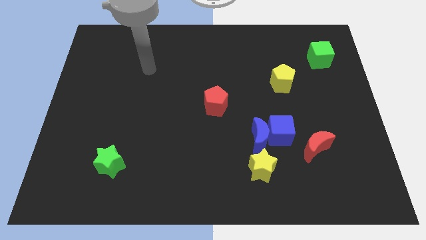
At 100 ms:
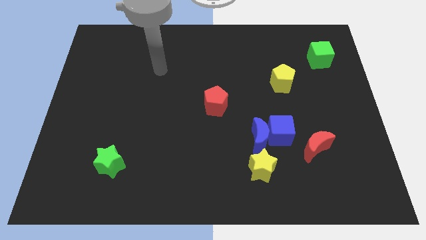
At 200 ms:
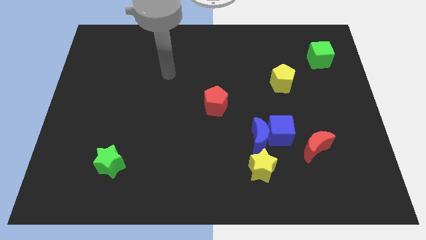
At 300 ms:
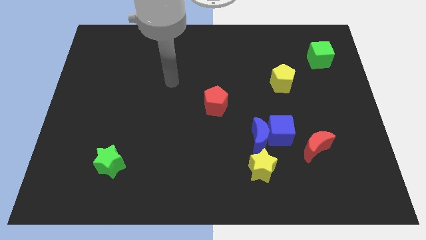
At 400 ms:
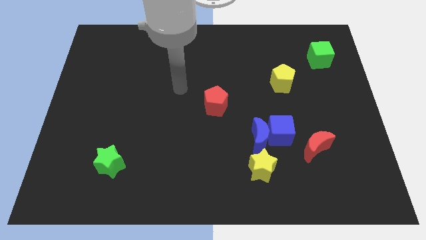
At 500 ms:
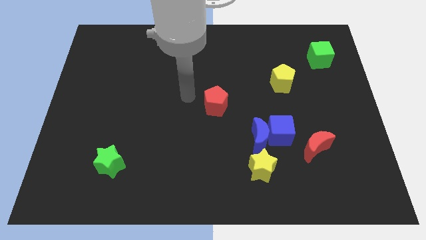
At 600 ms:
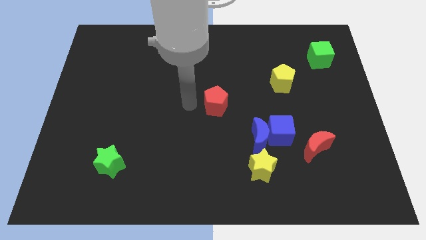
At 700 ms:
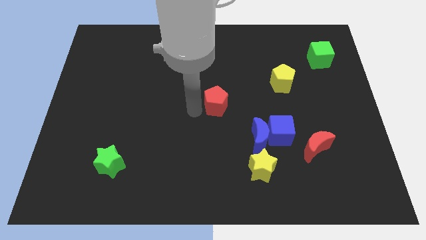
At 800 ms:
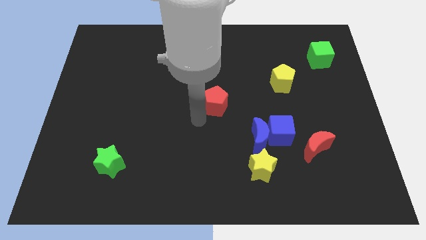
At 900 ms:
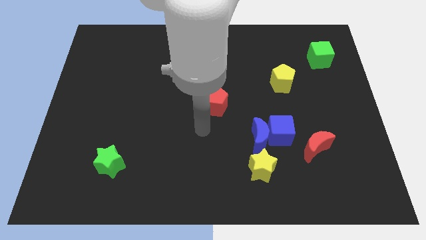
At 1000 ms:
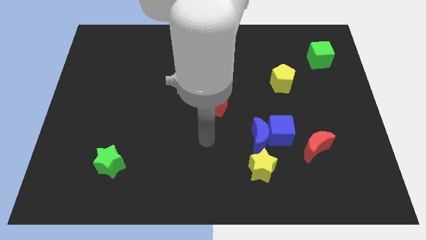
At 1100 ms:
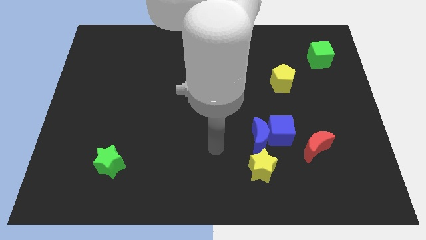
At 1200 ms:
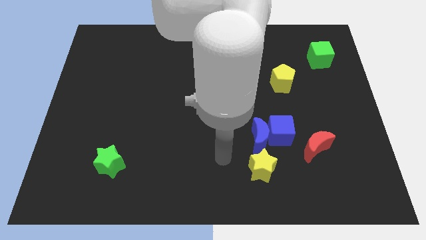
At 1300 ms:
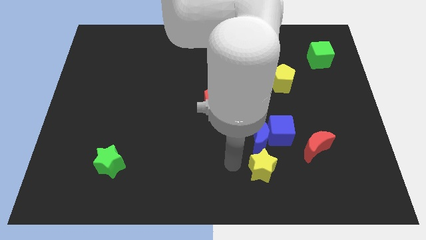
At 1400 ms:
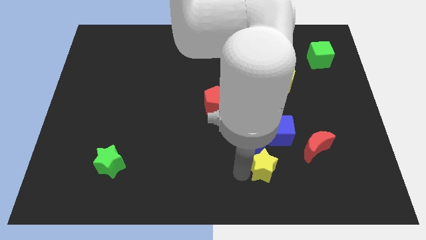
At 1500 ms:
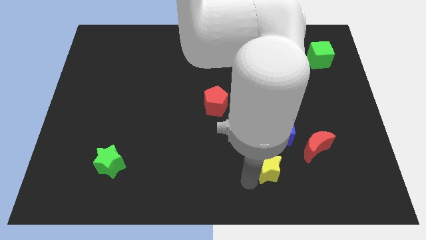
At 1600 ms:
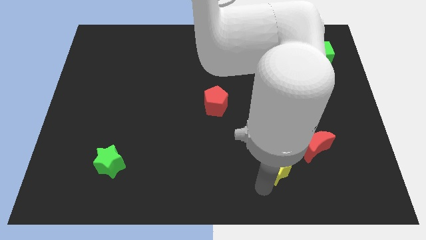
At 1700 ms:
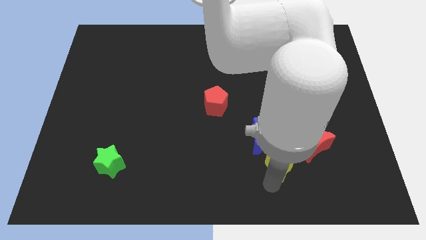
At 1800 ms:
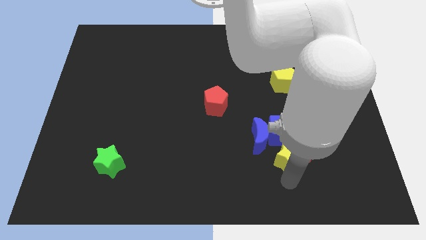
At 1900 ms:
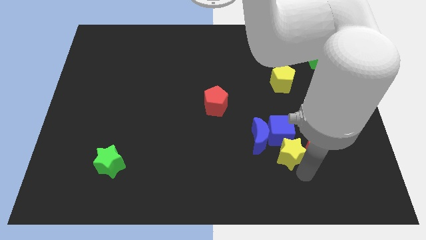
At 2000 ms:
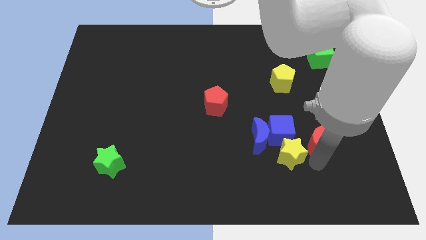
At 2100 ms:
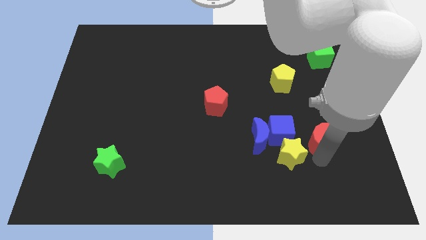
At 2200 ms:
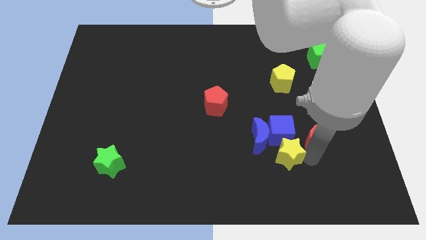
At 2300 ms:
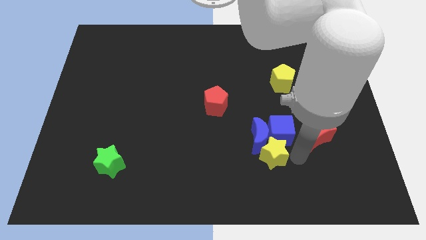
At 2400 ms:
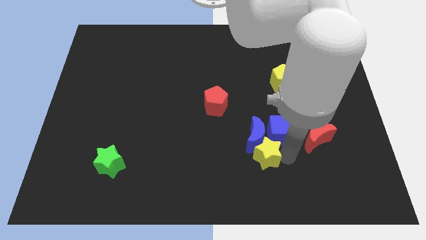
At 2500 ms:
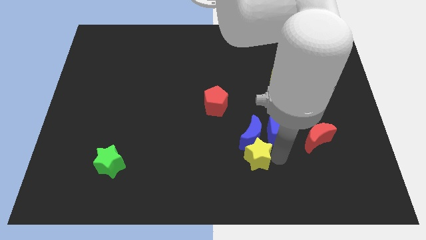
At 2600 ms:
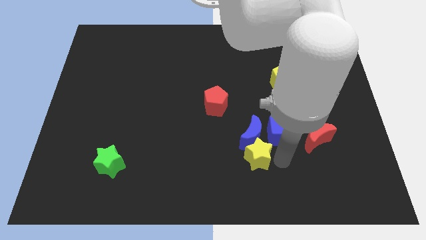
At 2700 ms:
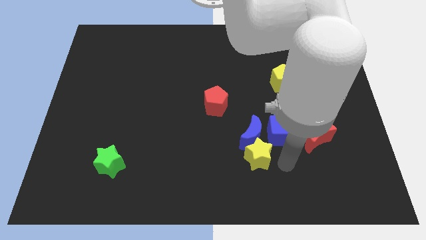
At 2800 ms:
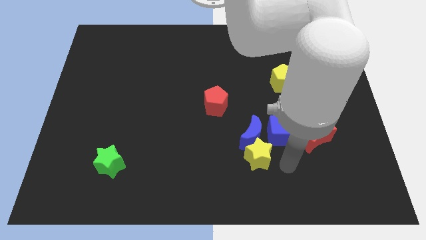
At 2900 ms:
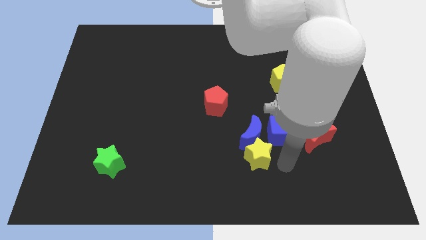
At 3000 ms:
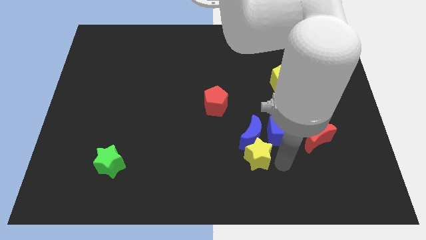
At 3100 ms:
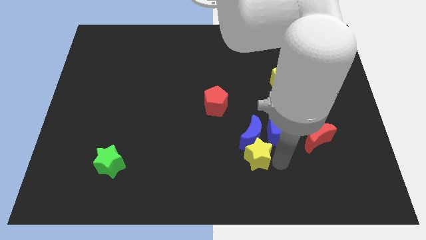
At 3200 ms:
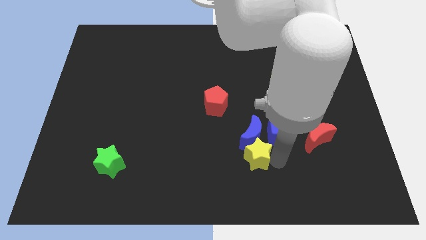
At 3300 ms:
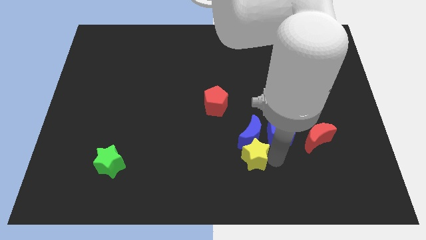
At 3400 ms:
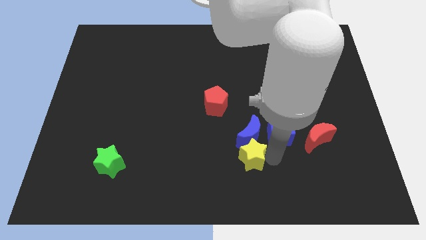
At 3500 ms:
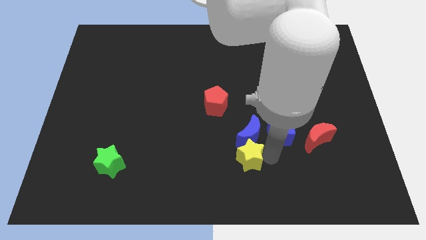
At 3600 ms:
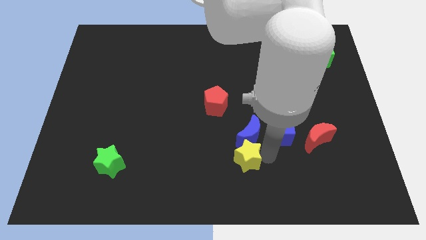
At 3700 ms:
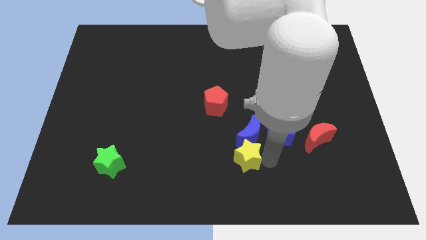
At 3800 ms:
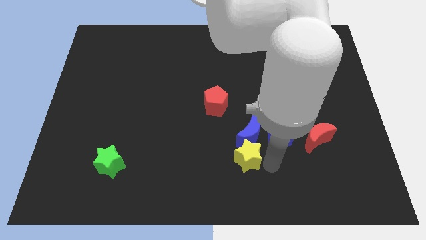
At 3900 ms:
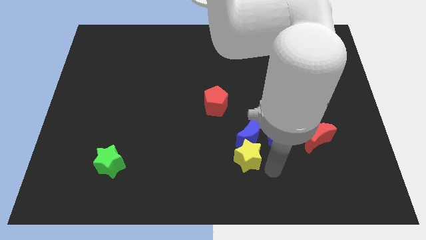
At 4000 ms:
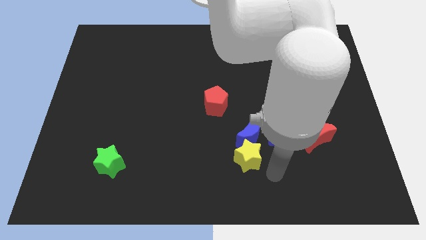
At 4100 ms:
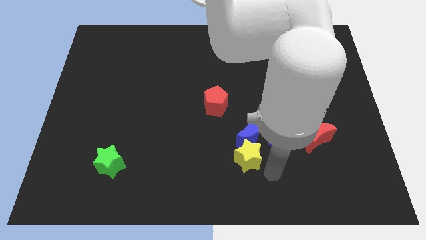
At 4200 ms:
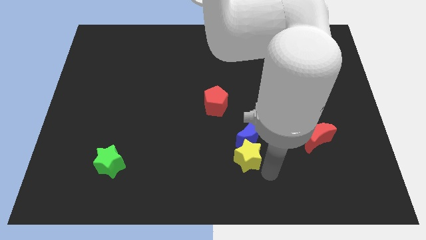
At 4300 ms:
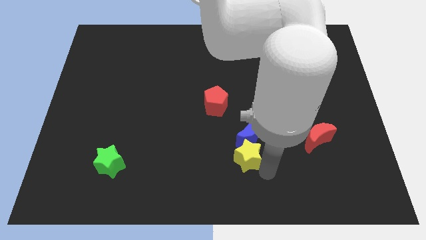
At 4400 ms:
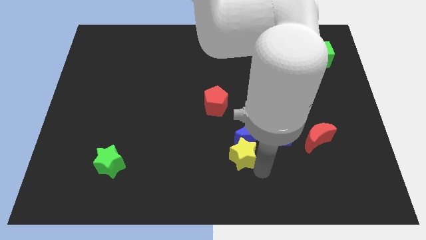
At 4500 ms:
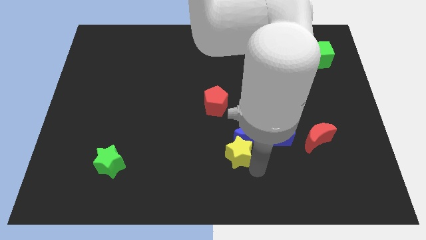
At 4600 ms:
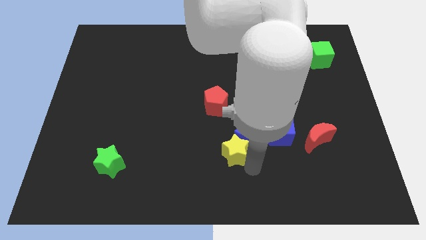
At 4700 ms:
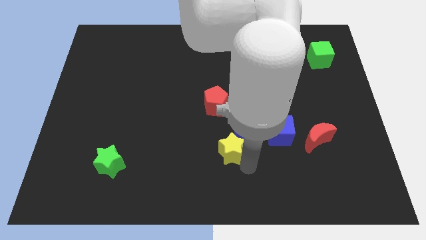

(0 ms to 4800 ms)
put the yellow star to the left of the blue moon

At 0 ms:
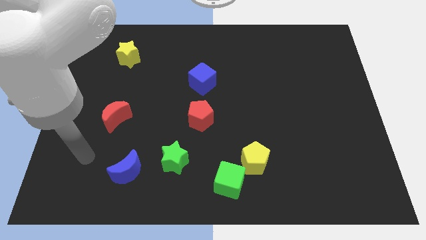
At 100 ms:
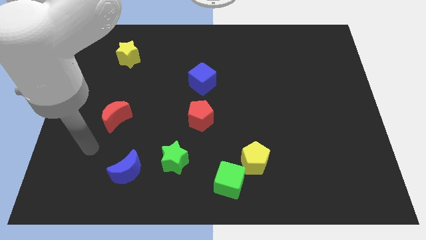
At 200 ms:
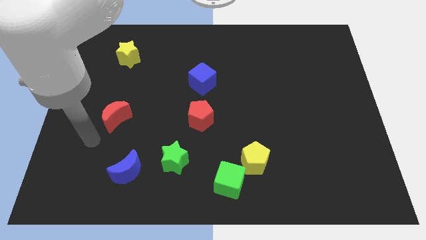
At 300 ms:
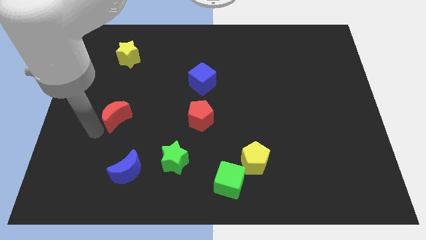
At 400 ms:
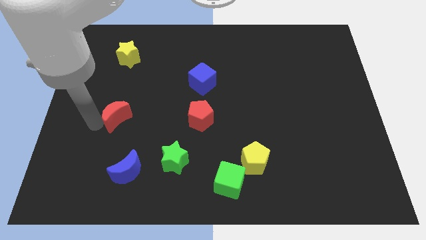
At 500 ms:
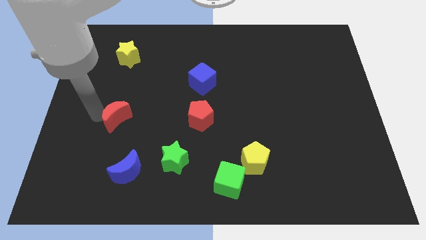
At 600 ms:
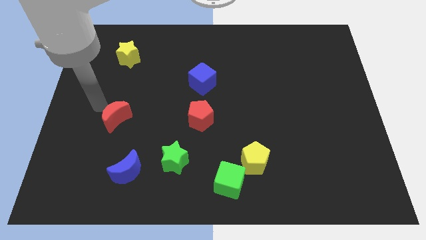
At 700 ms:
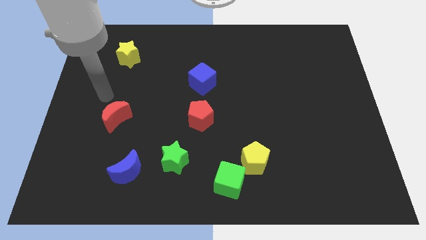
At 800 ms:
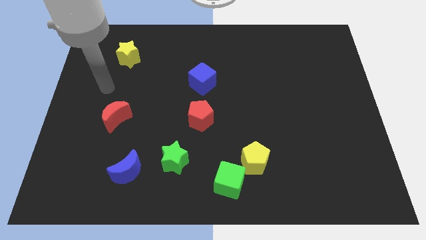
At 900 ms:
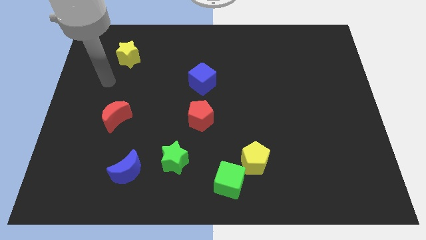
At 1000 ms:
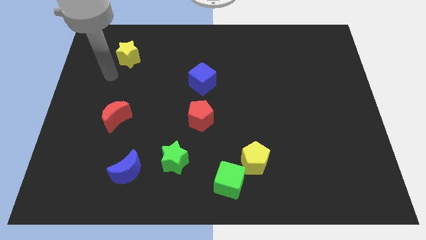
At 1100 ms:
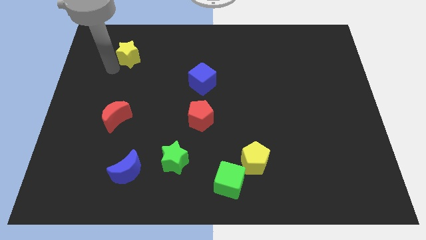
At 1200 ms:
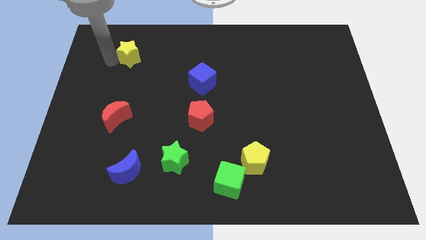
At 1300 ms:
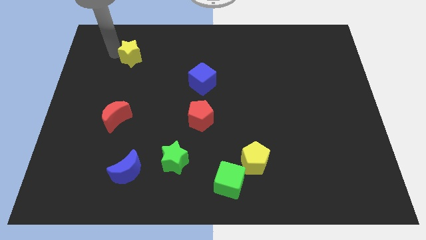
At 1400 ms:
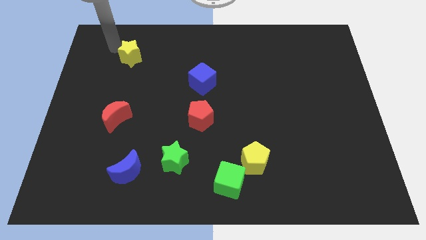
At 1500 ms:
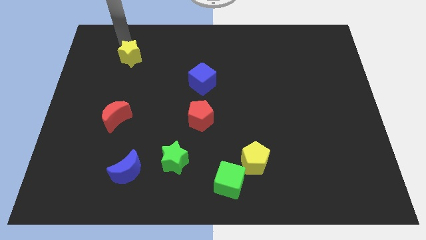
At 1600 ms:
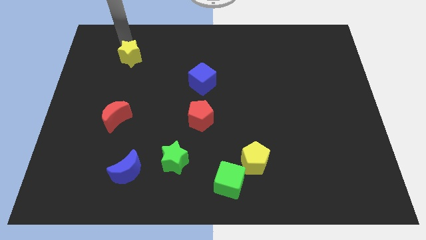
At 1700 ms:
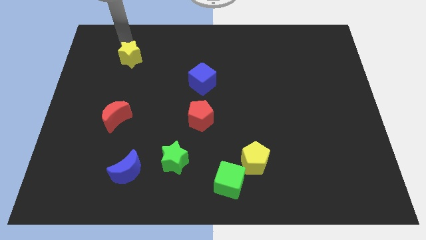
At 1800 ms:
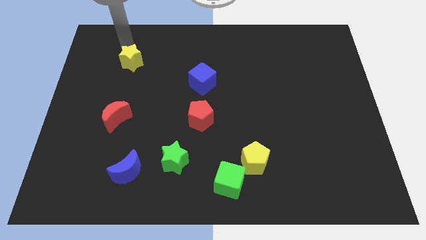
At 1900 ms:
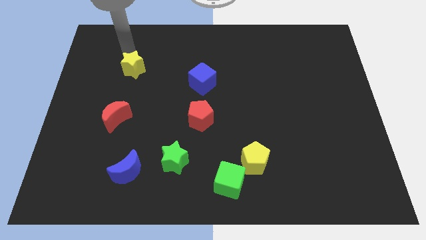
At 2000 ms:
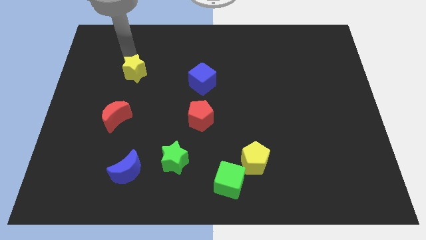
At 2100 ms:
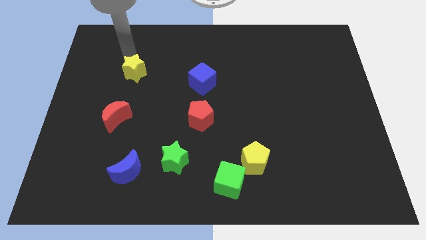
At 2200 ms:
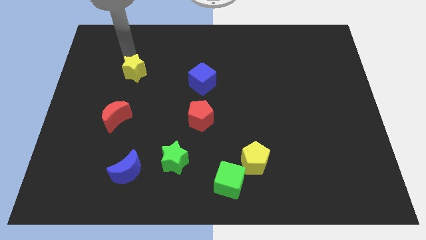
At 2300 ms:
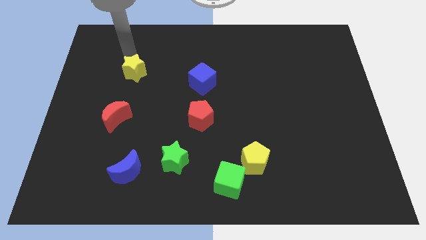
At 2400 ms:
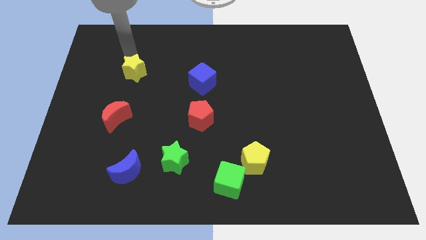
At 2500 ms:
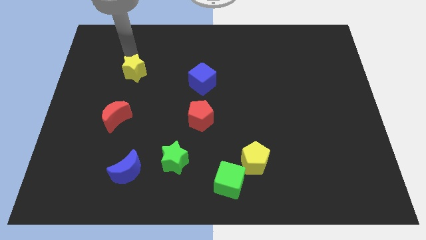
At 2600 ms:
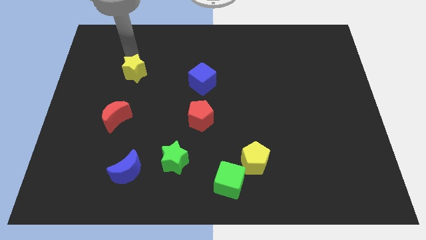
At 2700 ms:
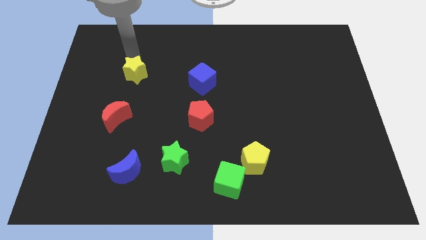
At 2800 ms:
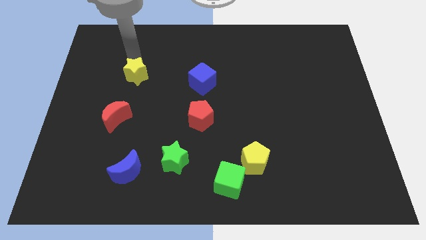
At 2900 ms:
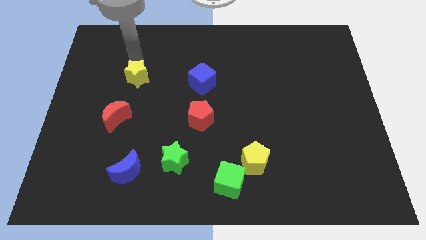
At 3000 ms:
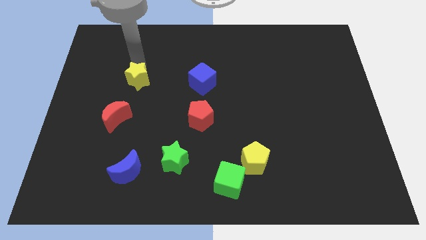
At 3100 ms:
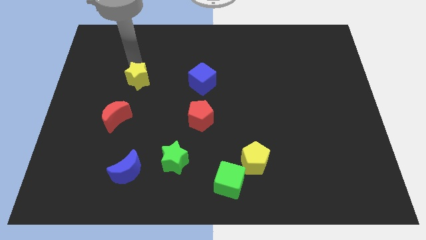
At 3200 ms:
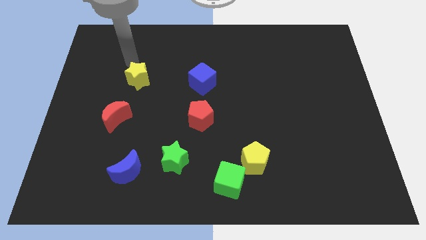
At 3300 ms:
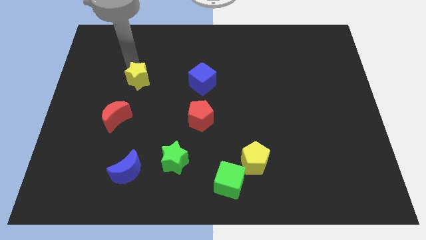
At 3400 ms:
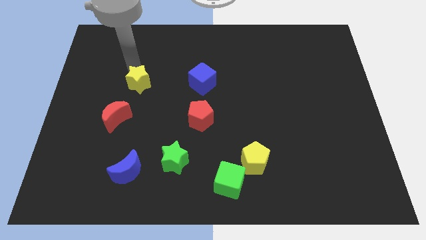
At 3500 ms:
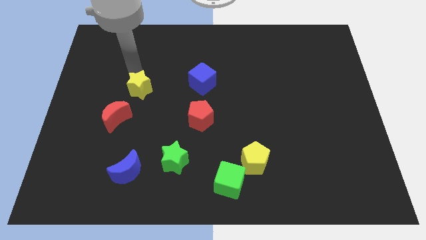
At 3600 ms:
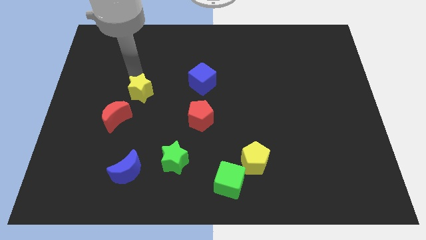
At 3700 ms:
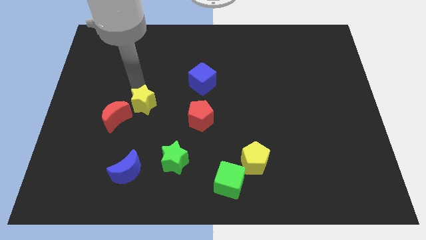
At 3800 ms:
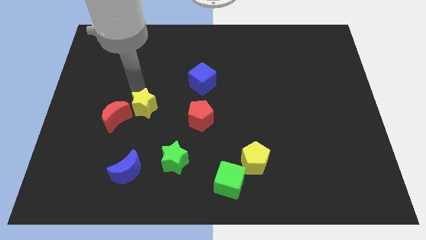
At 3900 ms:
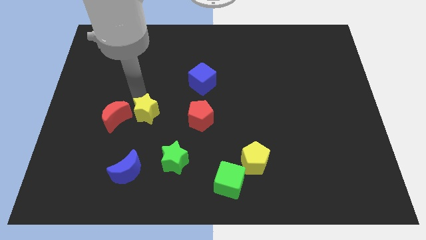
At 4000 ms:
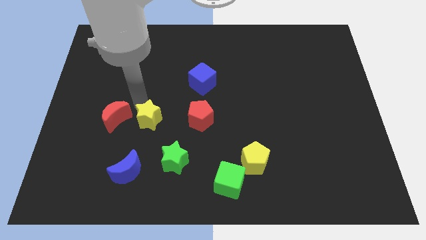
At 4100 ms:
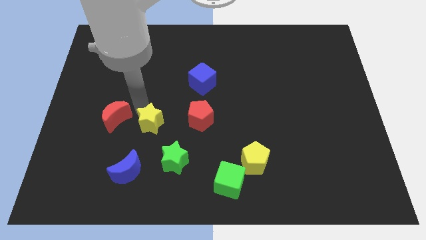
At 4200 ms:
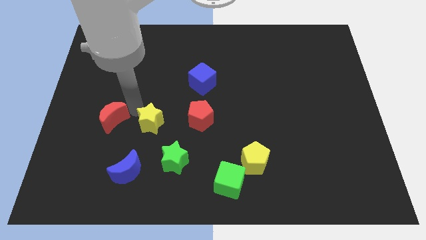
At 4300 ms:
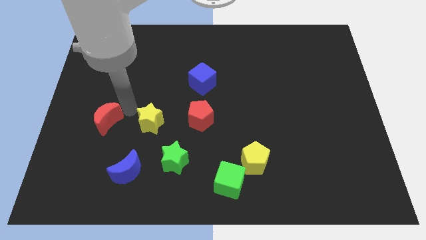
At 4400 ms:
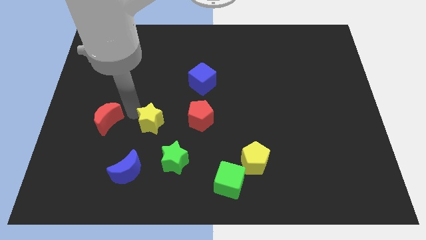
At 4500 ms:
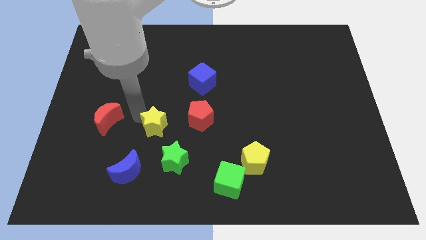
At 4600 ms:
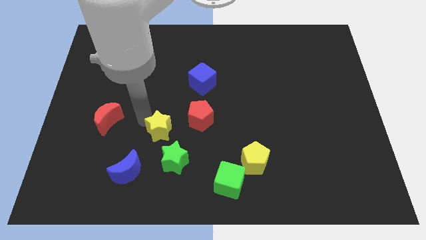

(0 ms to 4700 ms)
slide the yellow star to the bottom left of the red pentagon
